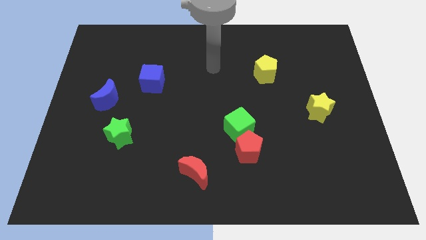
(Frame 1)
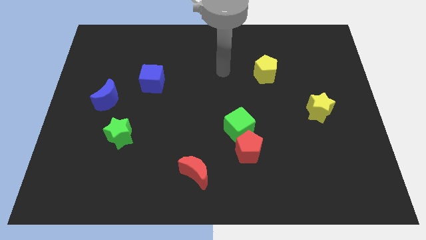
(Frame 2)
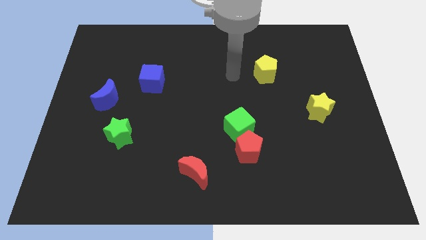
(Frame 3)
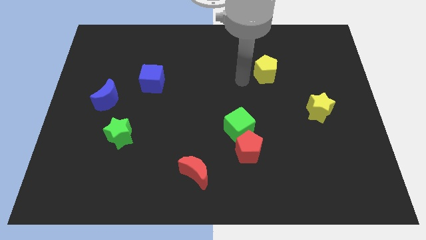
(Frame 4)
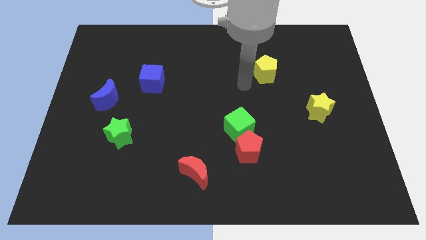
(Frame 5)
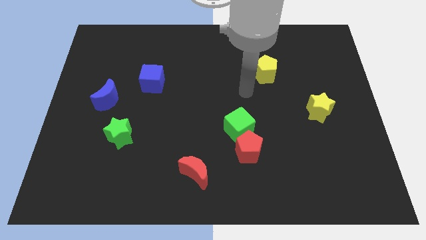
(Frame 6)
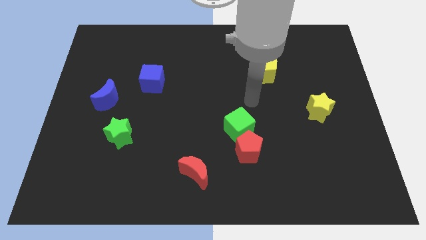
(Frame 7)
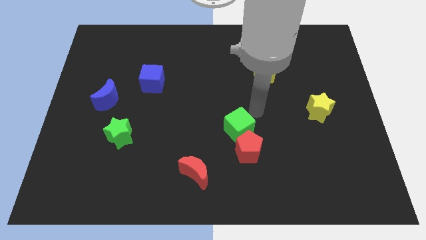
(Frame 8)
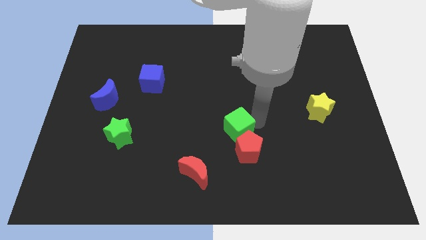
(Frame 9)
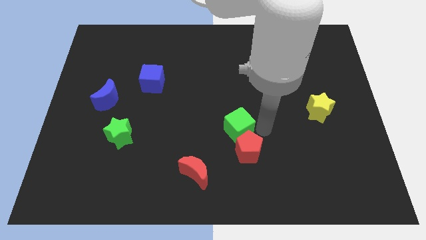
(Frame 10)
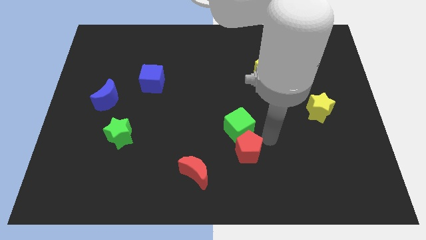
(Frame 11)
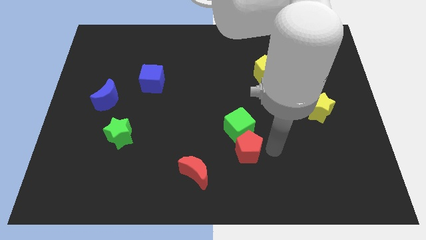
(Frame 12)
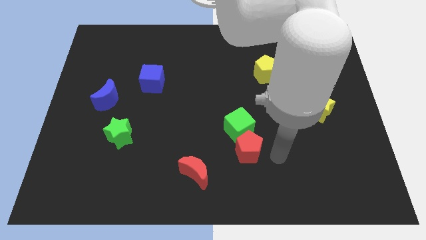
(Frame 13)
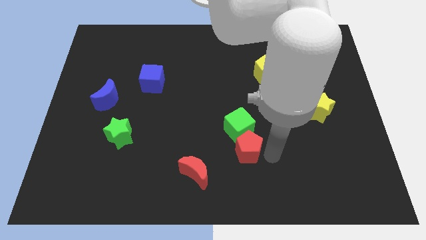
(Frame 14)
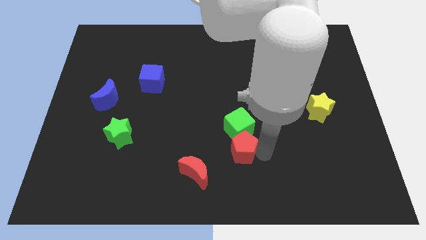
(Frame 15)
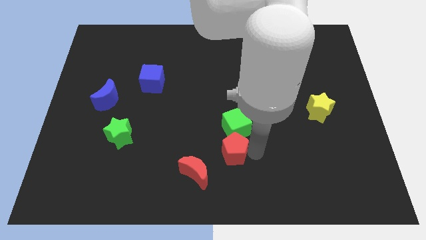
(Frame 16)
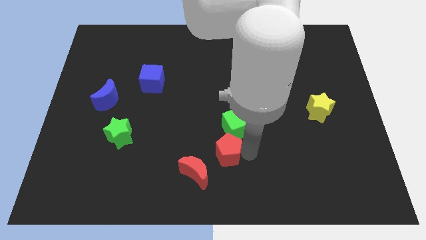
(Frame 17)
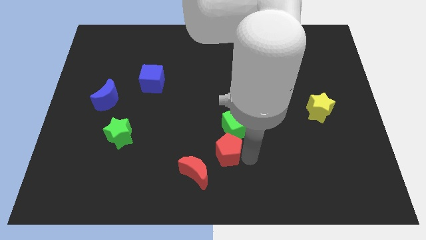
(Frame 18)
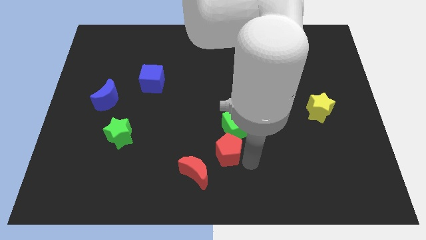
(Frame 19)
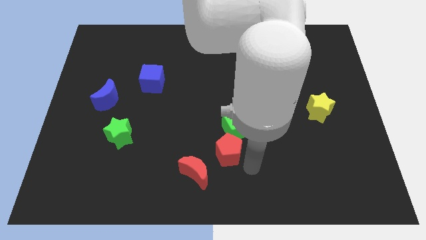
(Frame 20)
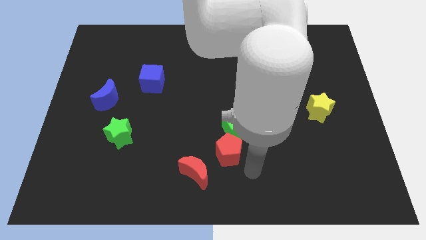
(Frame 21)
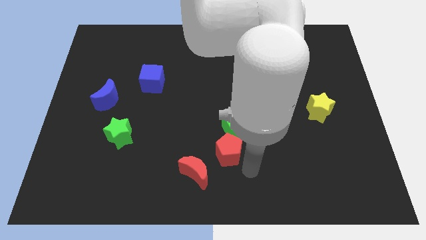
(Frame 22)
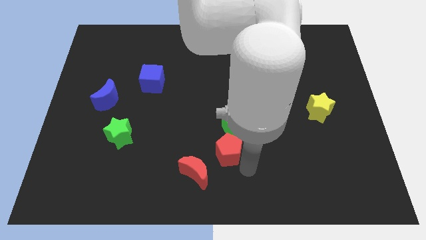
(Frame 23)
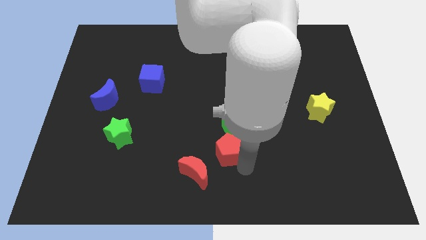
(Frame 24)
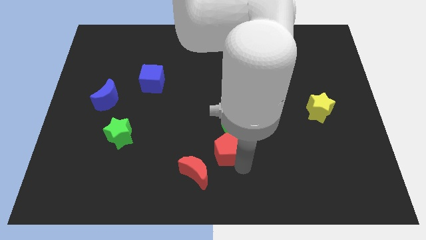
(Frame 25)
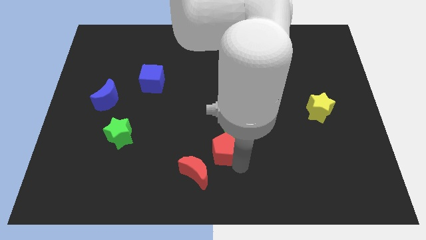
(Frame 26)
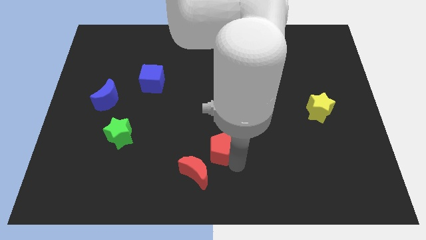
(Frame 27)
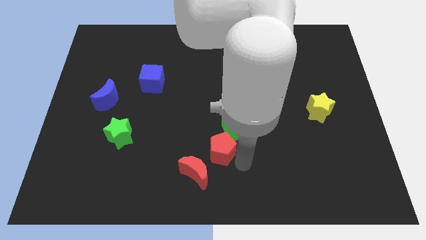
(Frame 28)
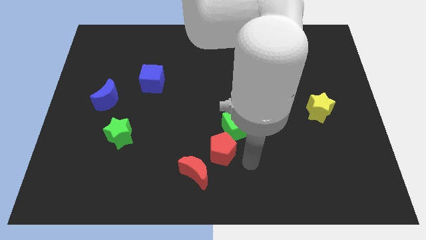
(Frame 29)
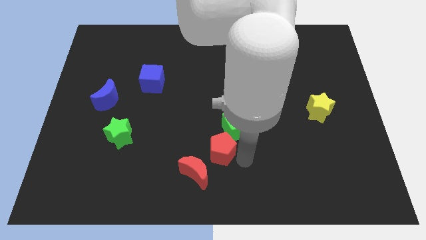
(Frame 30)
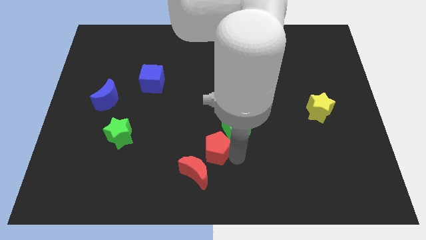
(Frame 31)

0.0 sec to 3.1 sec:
slightly push the red pentagon left

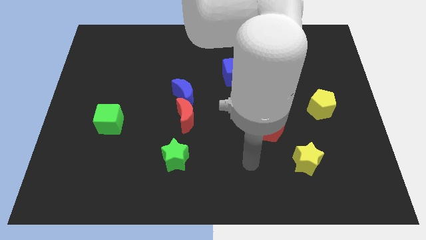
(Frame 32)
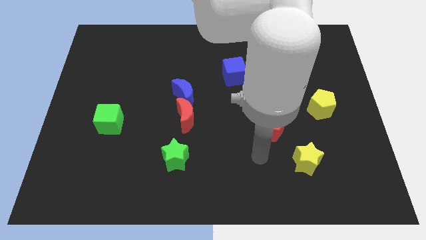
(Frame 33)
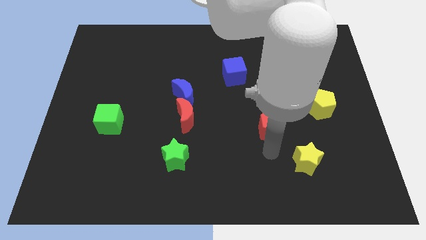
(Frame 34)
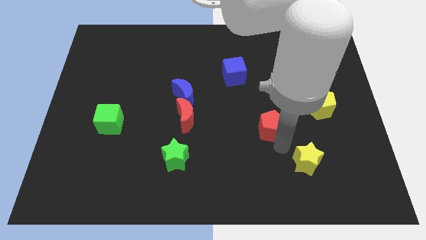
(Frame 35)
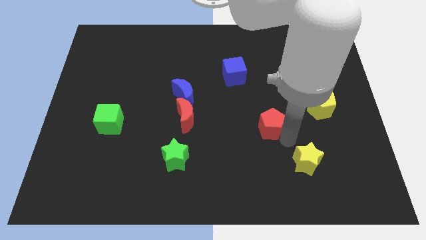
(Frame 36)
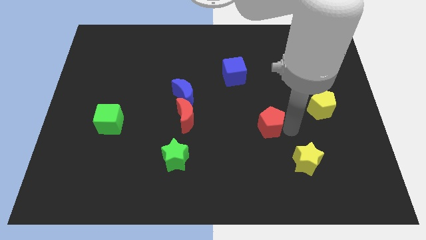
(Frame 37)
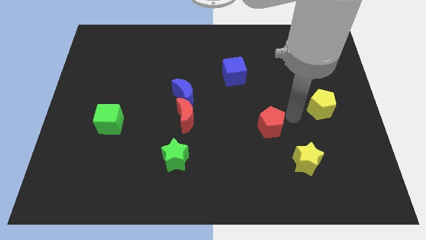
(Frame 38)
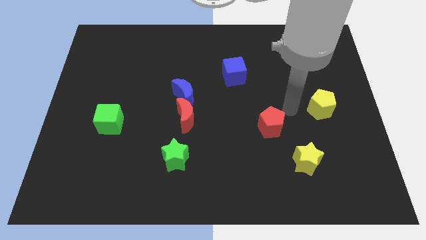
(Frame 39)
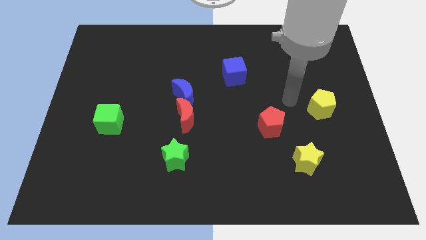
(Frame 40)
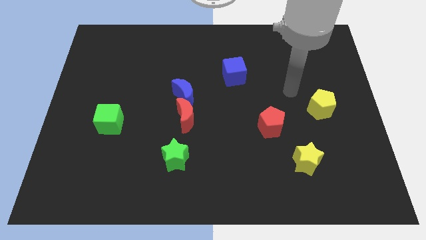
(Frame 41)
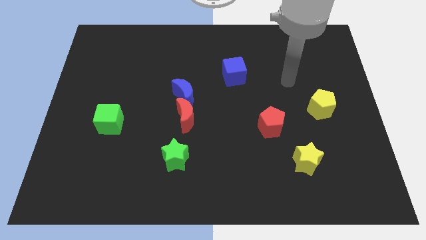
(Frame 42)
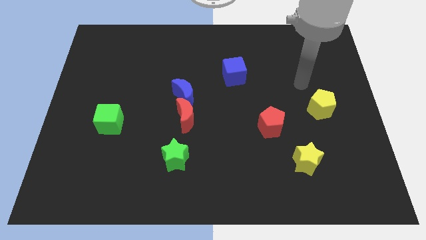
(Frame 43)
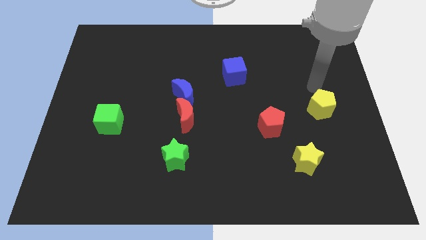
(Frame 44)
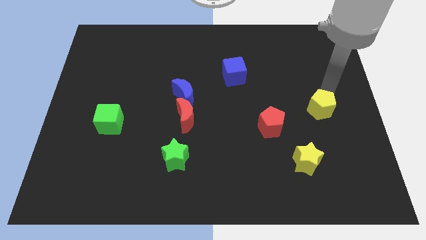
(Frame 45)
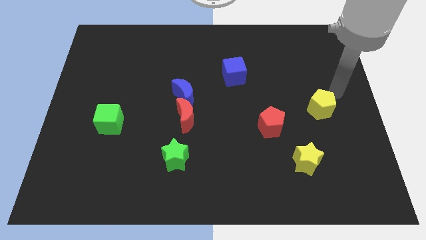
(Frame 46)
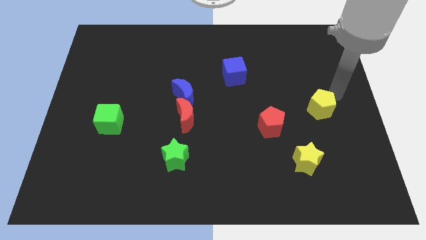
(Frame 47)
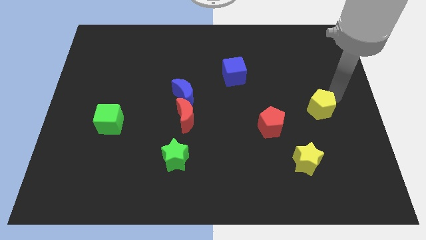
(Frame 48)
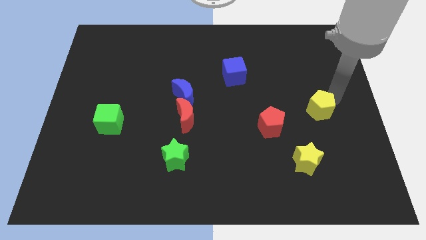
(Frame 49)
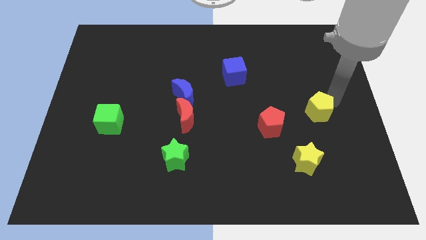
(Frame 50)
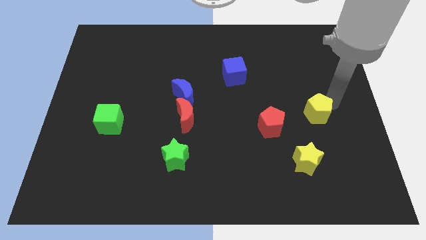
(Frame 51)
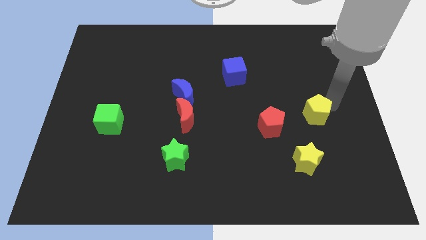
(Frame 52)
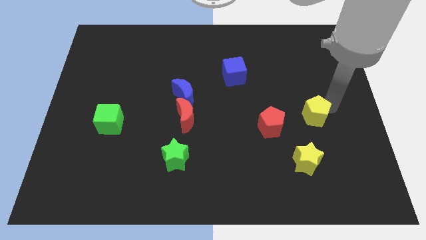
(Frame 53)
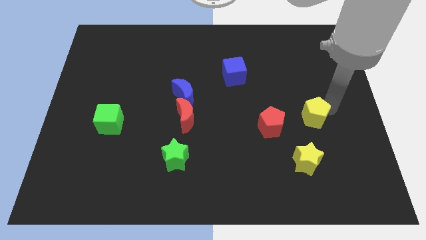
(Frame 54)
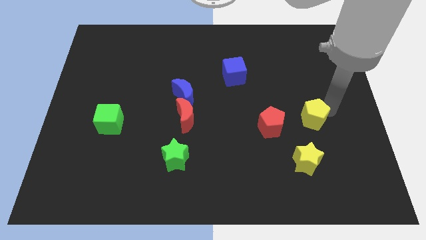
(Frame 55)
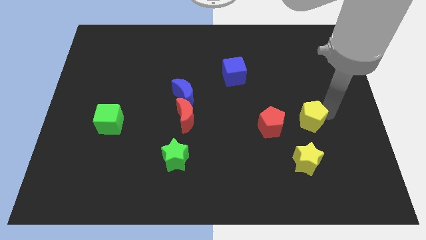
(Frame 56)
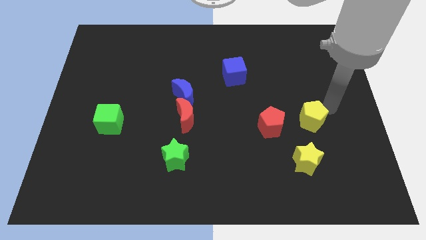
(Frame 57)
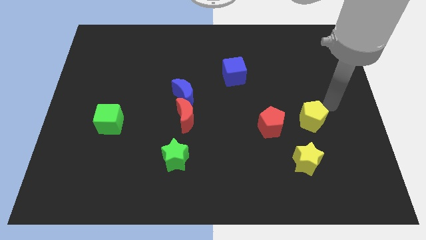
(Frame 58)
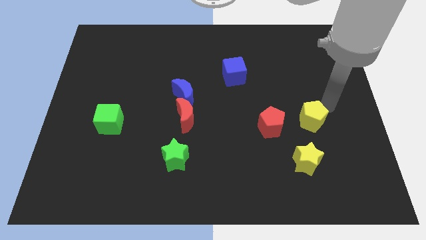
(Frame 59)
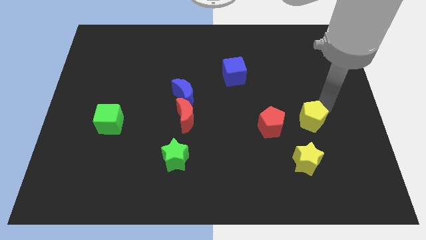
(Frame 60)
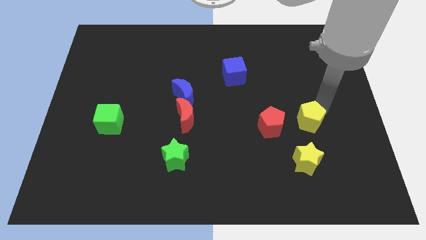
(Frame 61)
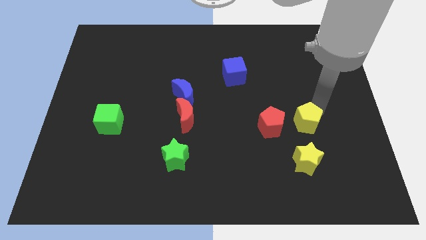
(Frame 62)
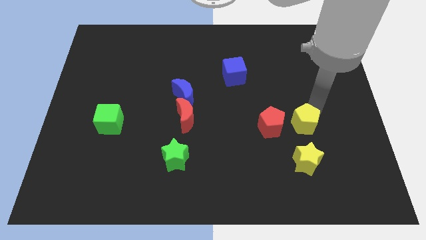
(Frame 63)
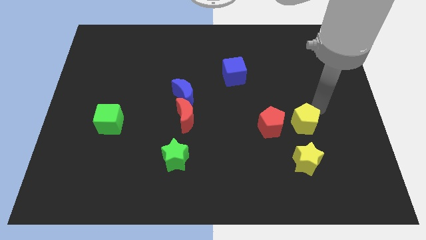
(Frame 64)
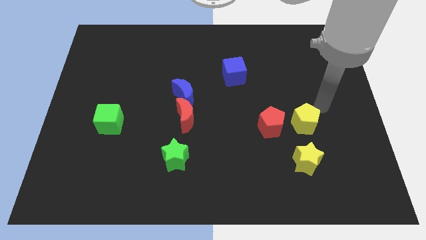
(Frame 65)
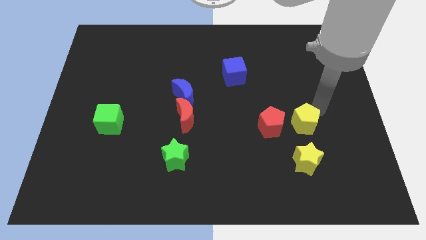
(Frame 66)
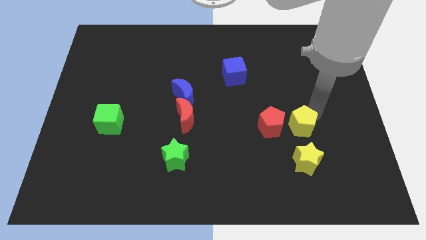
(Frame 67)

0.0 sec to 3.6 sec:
slightly push the yellow pentagon diagonally down and left

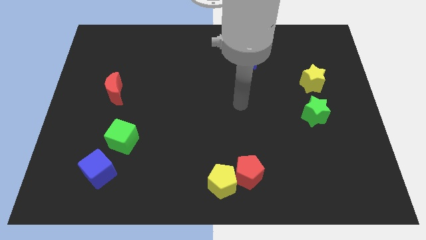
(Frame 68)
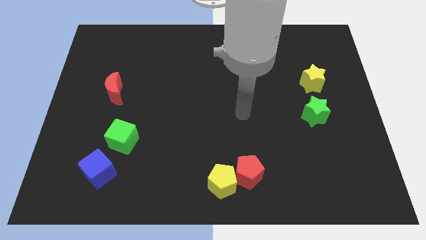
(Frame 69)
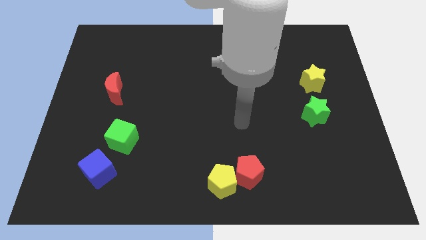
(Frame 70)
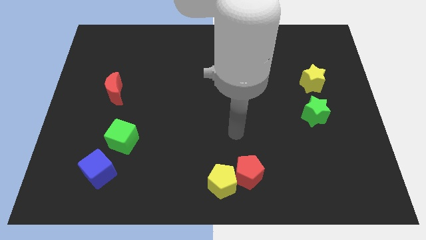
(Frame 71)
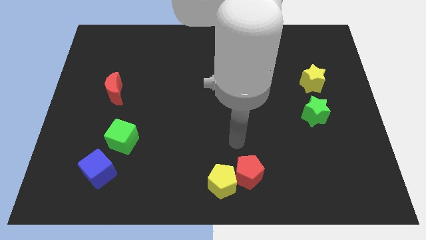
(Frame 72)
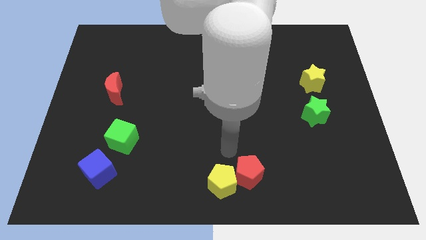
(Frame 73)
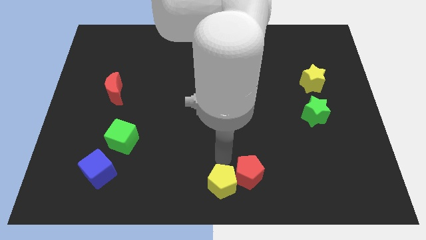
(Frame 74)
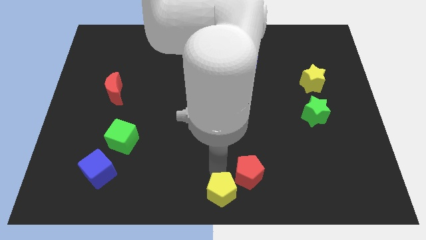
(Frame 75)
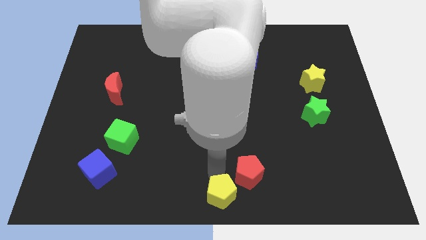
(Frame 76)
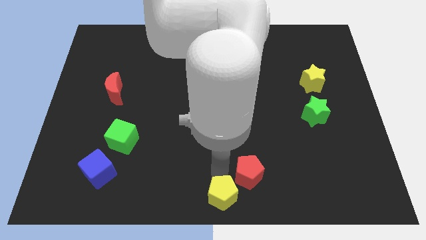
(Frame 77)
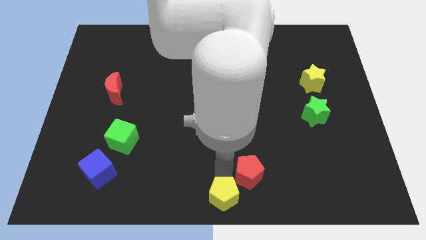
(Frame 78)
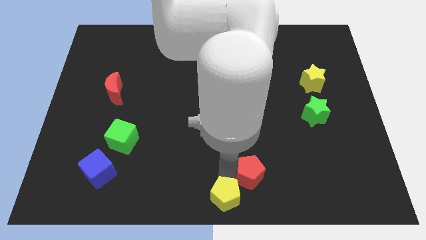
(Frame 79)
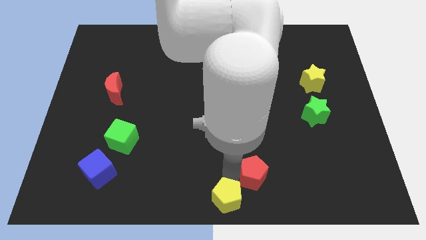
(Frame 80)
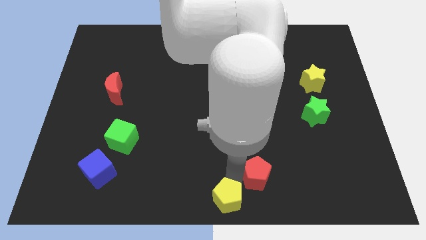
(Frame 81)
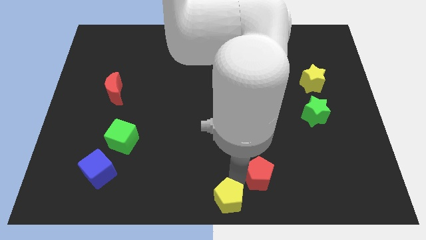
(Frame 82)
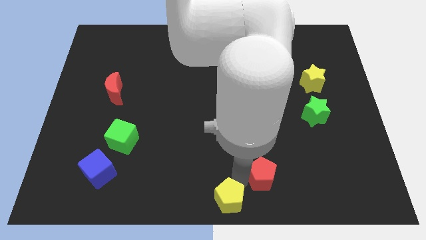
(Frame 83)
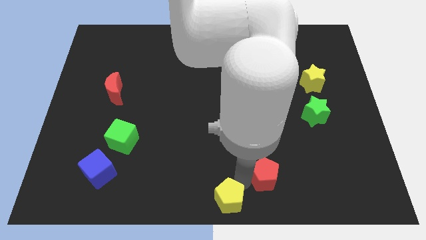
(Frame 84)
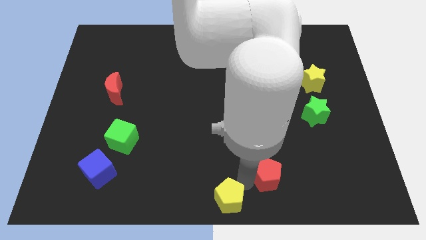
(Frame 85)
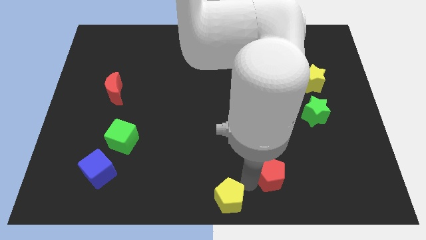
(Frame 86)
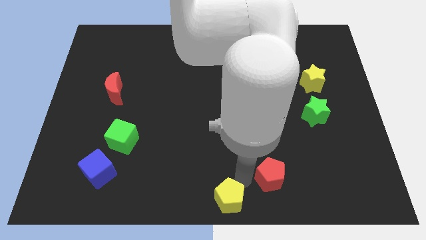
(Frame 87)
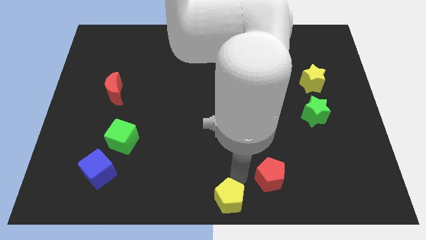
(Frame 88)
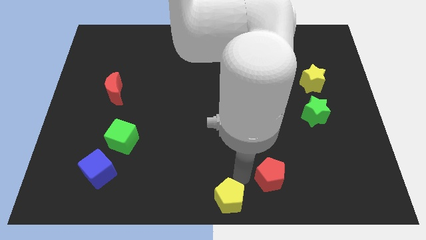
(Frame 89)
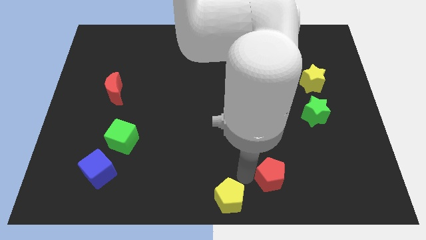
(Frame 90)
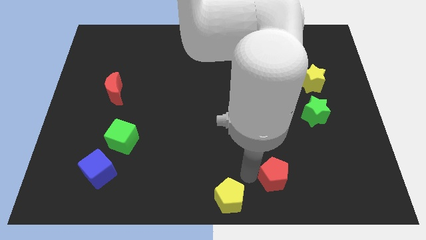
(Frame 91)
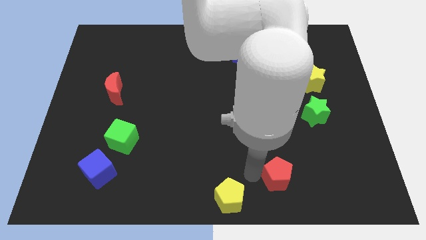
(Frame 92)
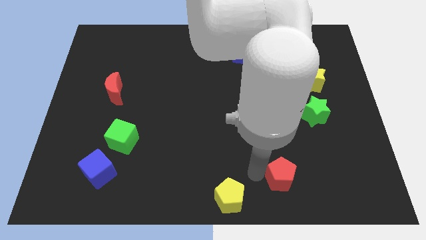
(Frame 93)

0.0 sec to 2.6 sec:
slide the red pentagon to the right a little
